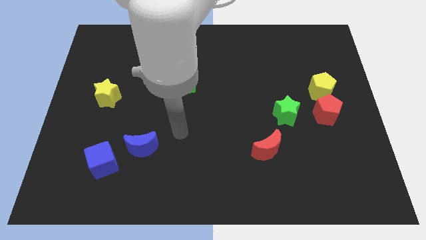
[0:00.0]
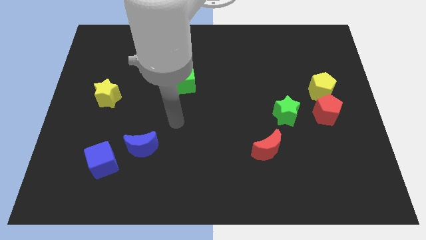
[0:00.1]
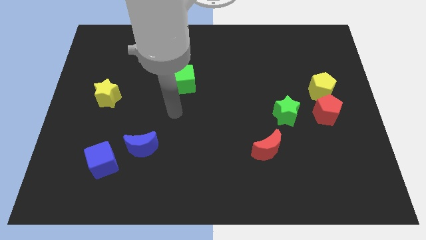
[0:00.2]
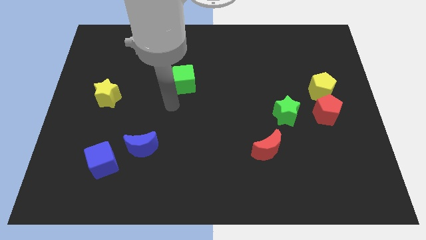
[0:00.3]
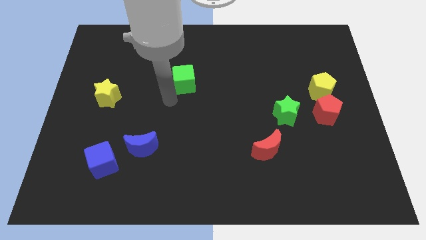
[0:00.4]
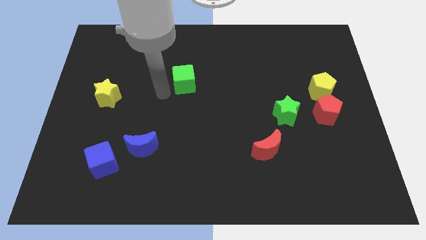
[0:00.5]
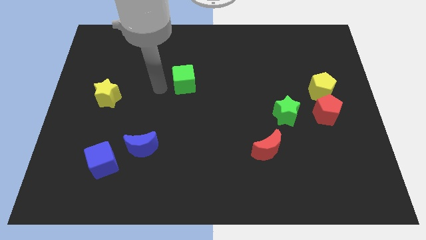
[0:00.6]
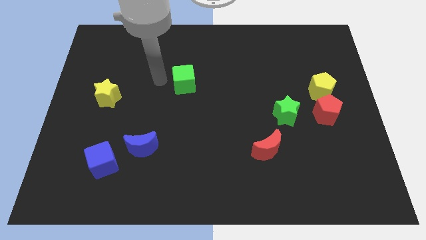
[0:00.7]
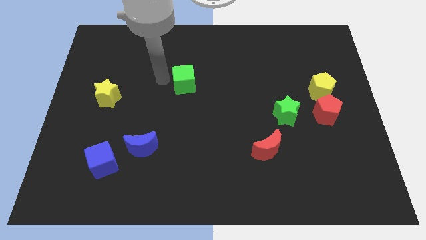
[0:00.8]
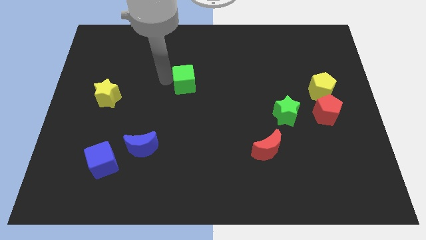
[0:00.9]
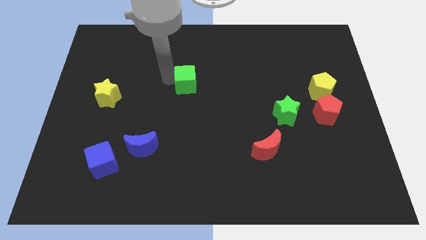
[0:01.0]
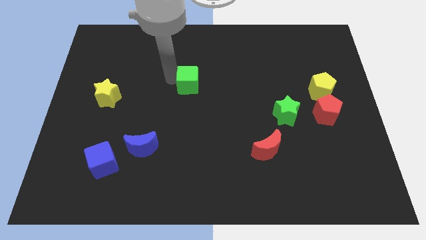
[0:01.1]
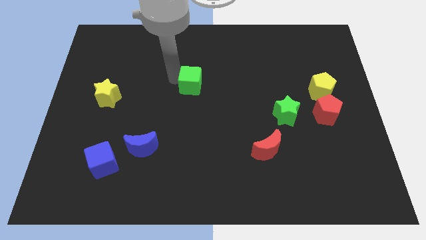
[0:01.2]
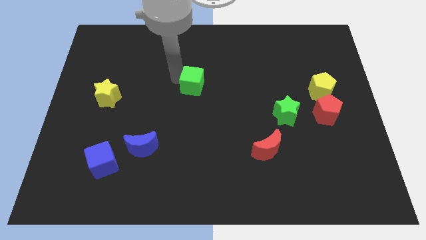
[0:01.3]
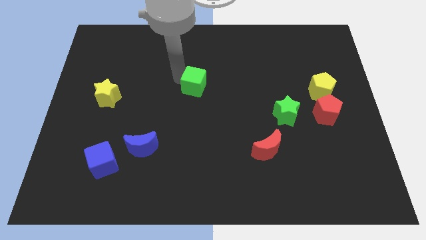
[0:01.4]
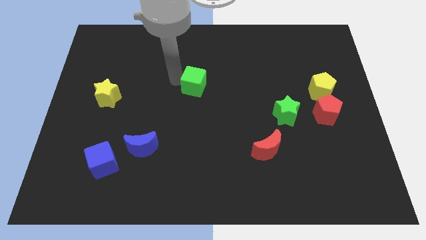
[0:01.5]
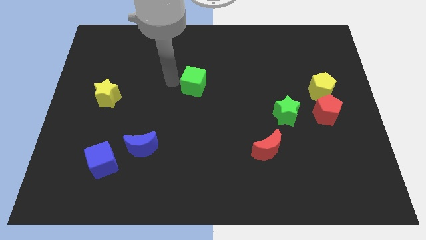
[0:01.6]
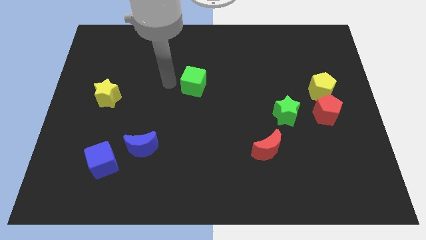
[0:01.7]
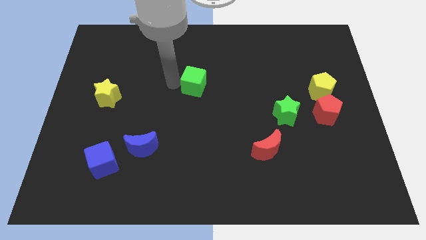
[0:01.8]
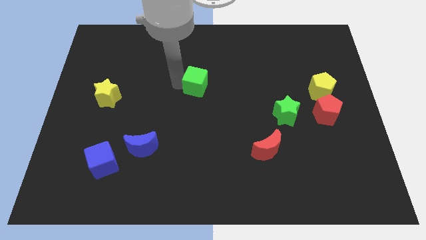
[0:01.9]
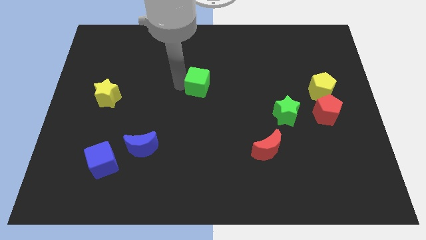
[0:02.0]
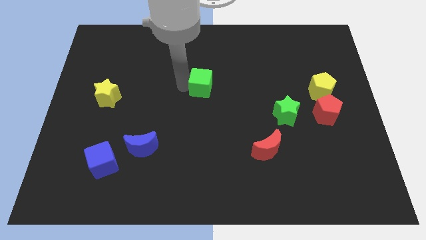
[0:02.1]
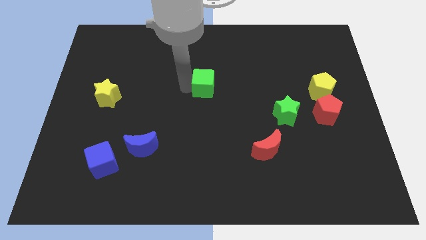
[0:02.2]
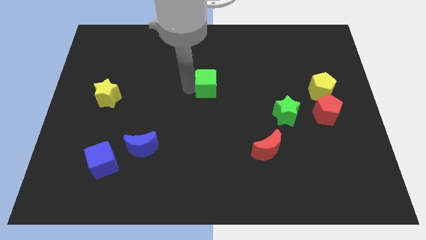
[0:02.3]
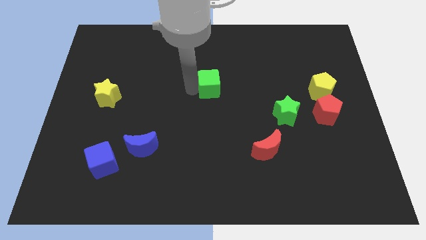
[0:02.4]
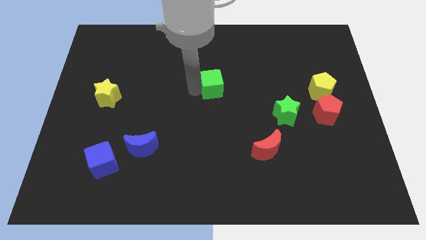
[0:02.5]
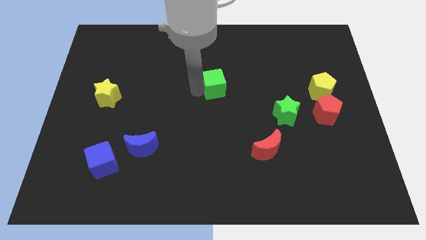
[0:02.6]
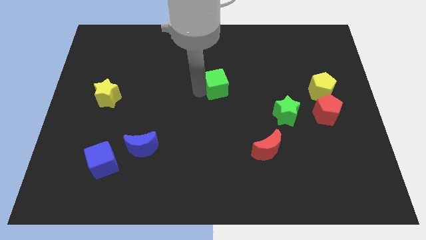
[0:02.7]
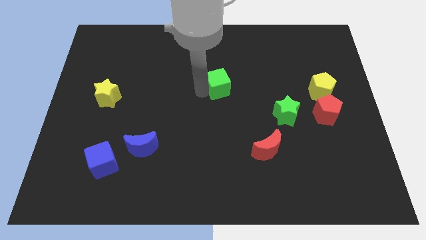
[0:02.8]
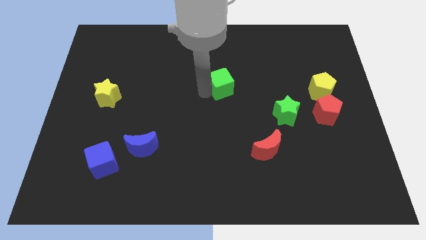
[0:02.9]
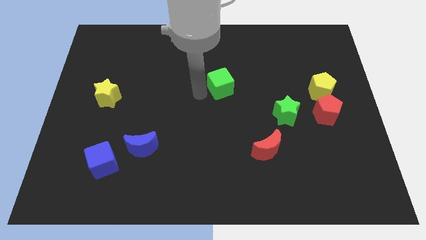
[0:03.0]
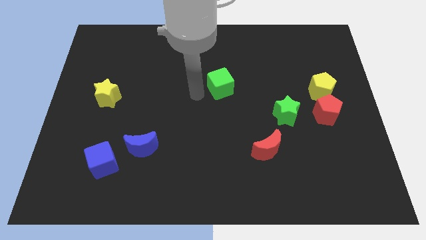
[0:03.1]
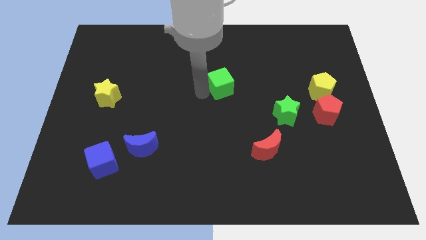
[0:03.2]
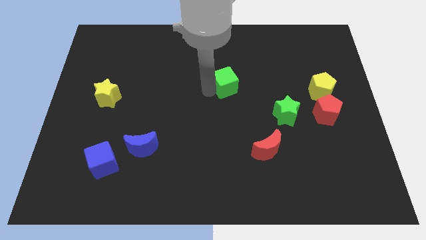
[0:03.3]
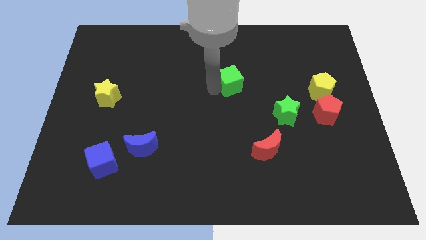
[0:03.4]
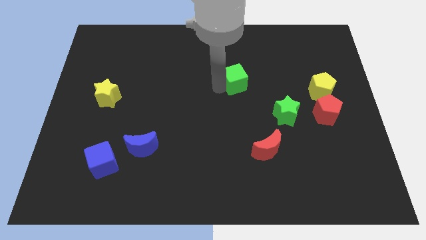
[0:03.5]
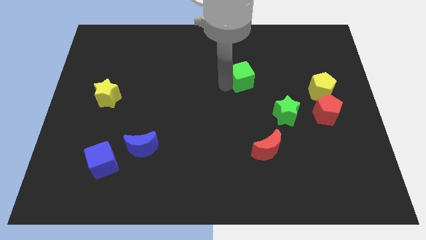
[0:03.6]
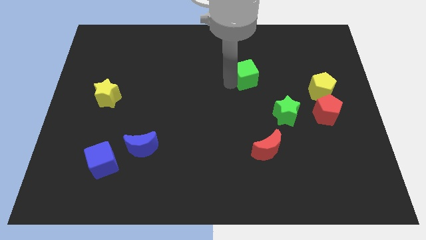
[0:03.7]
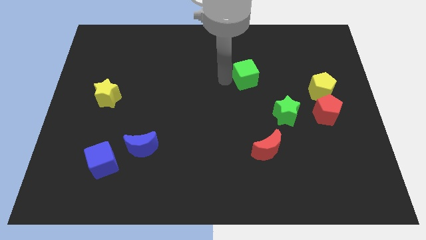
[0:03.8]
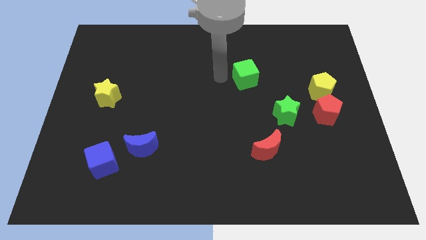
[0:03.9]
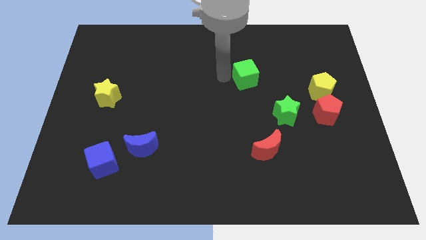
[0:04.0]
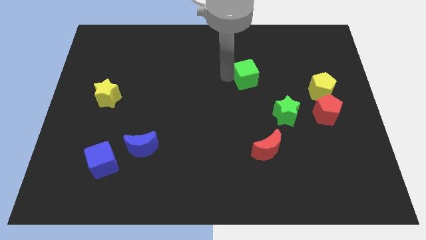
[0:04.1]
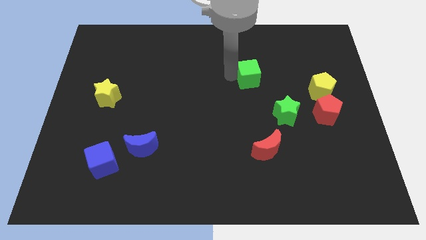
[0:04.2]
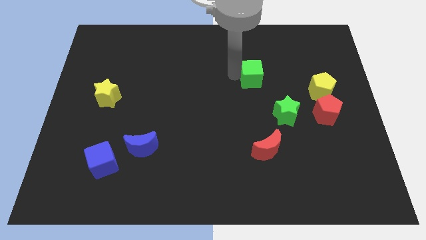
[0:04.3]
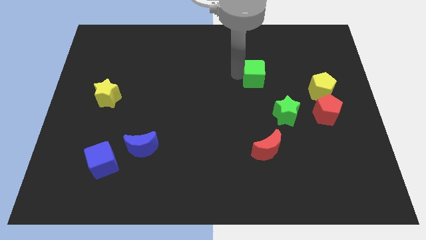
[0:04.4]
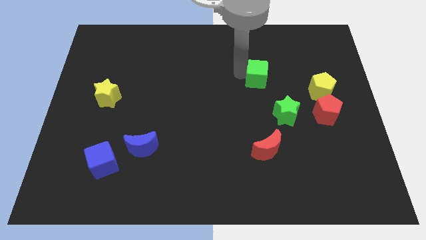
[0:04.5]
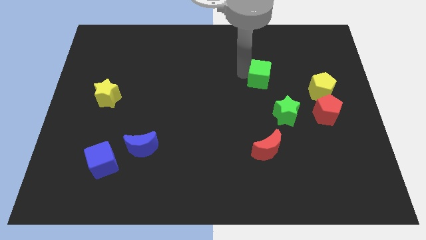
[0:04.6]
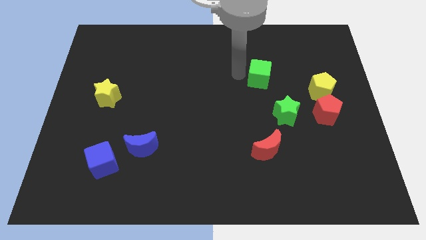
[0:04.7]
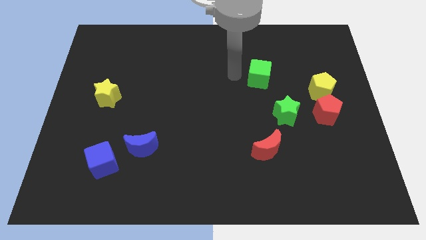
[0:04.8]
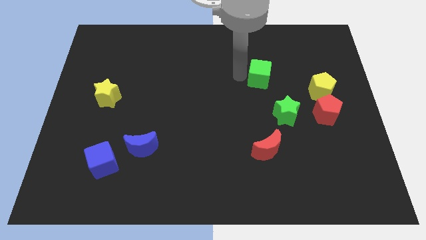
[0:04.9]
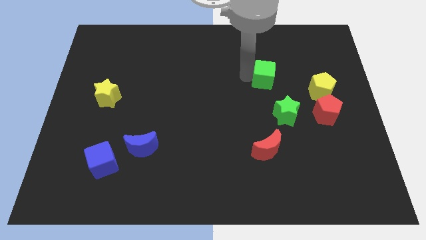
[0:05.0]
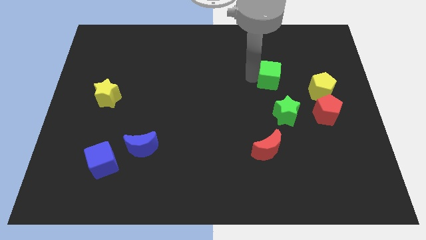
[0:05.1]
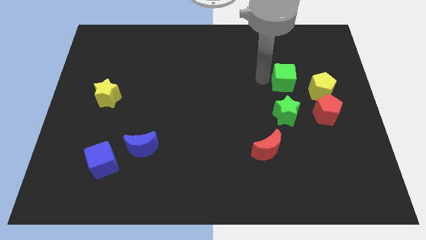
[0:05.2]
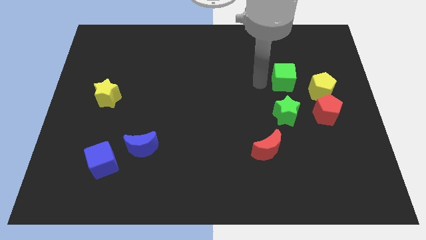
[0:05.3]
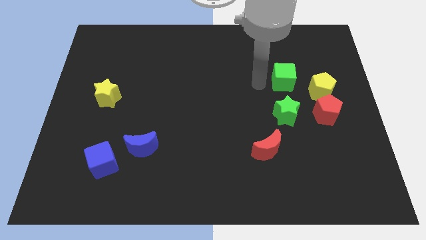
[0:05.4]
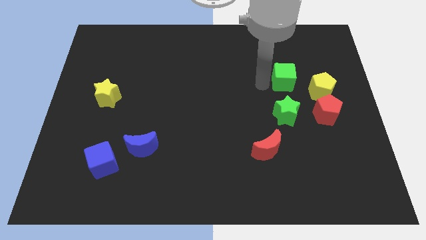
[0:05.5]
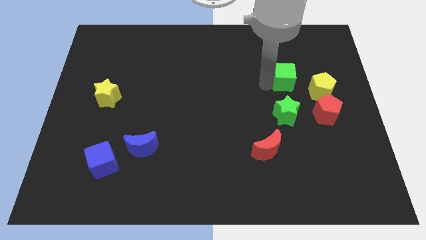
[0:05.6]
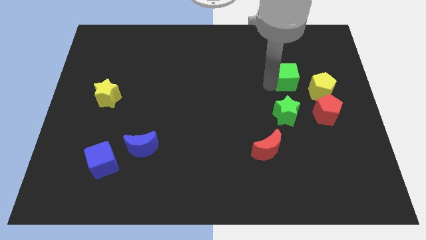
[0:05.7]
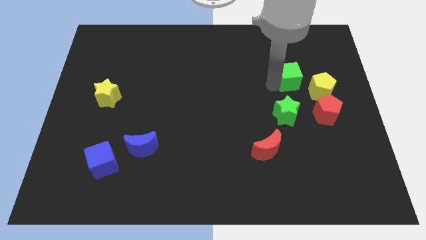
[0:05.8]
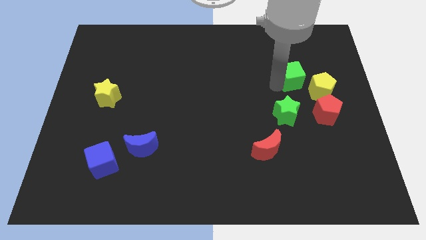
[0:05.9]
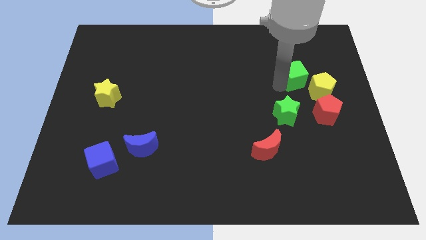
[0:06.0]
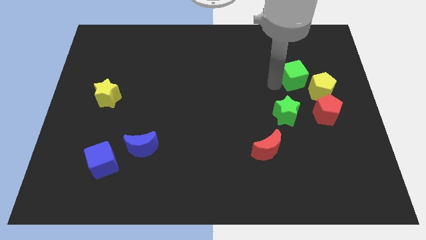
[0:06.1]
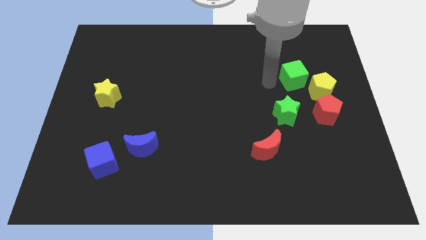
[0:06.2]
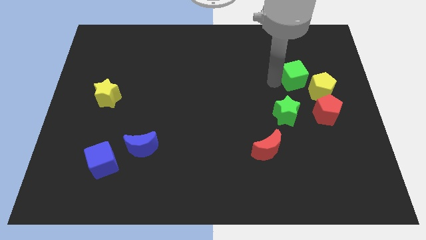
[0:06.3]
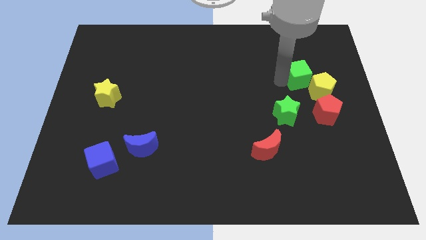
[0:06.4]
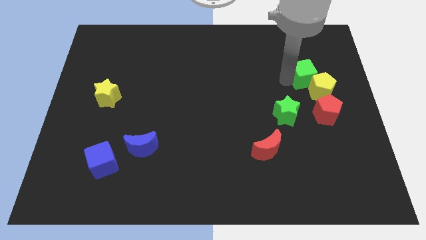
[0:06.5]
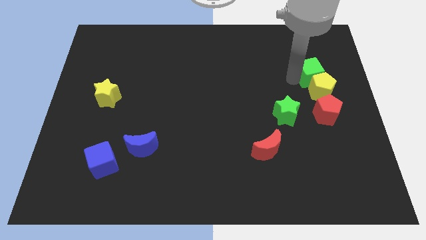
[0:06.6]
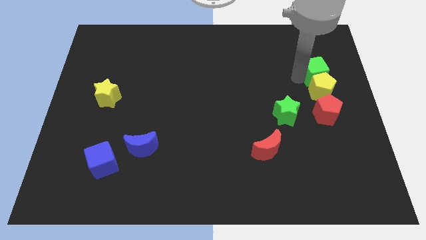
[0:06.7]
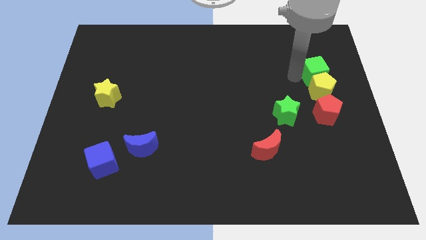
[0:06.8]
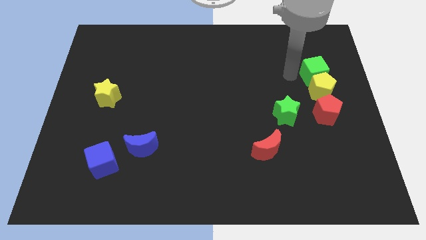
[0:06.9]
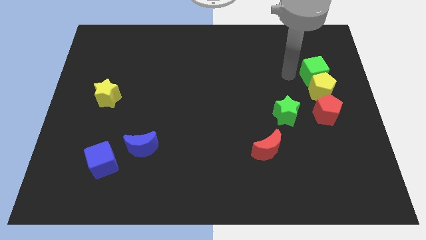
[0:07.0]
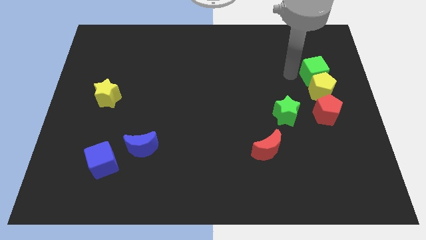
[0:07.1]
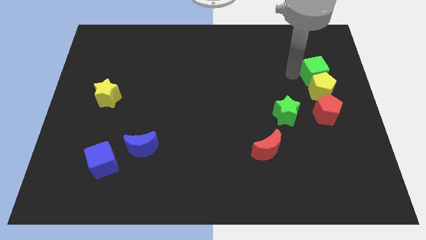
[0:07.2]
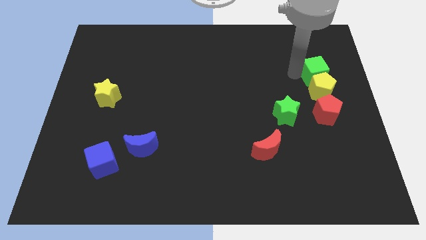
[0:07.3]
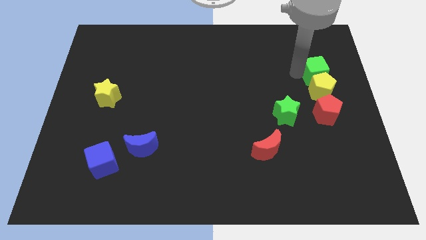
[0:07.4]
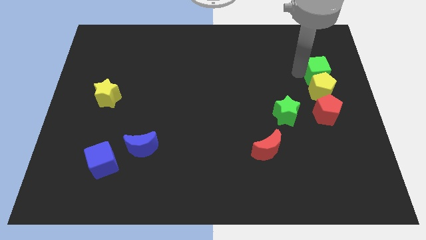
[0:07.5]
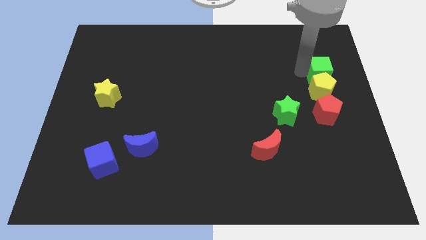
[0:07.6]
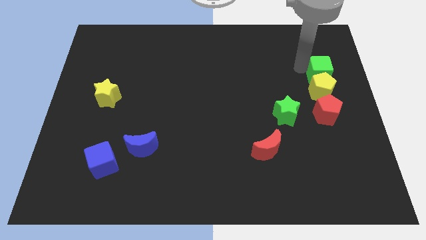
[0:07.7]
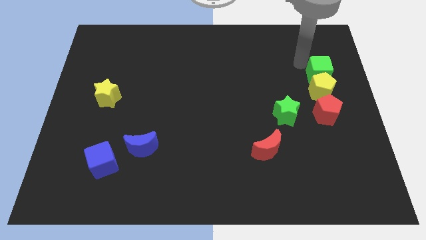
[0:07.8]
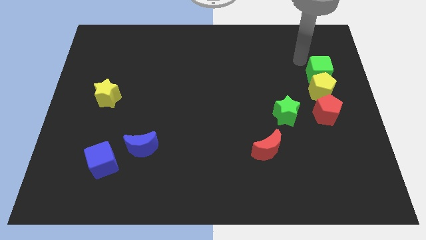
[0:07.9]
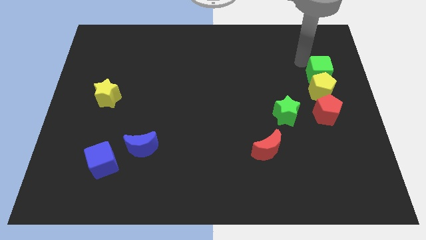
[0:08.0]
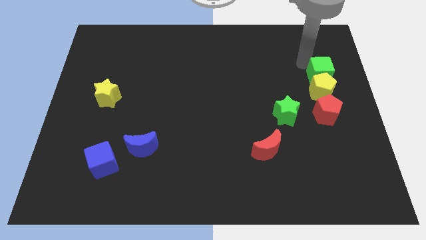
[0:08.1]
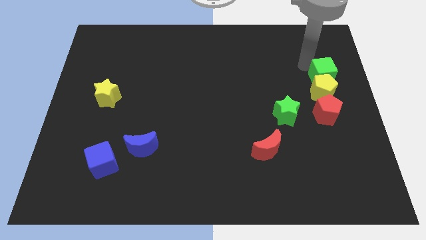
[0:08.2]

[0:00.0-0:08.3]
move the green cube to the center right
